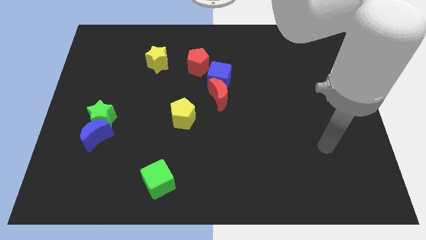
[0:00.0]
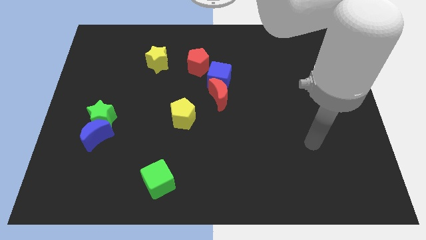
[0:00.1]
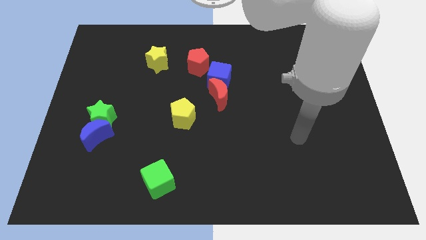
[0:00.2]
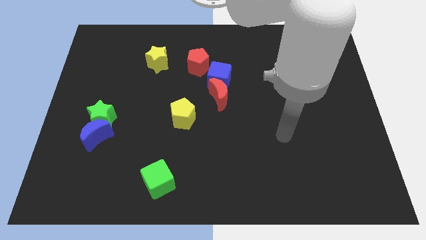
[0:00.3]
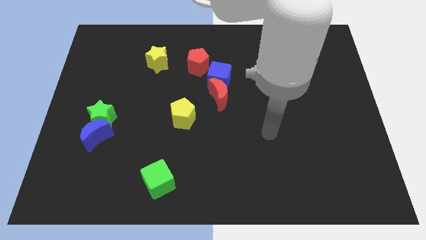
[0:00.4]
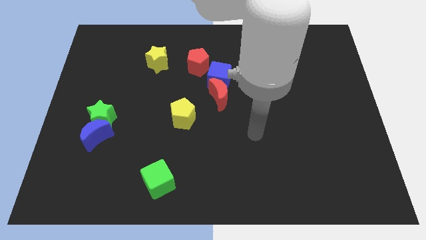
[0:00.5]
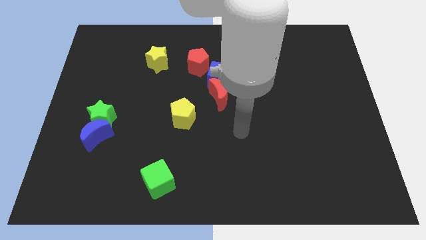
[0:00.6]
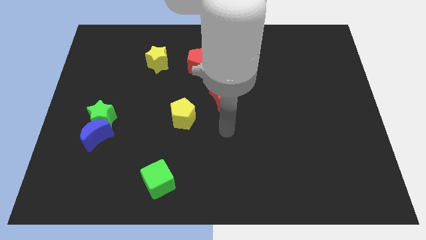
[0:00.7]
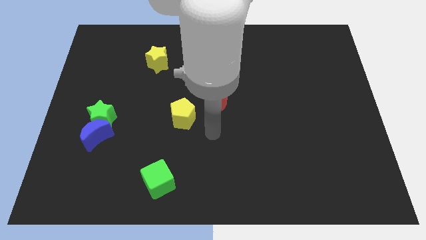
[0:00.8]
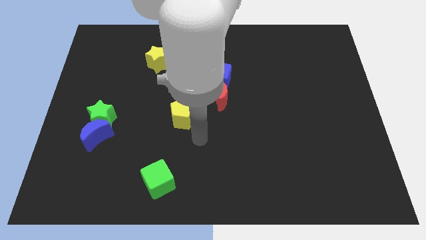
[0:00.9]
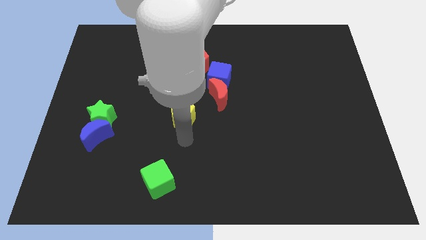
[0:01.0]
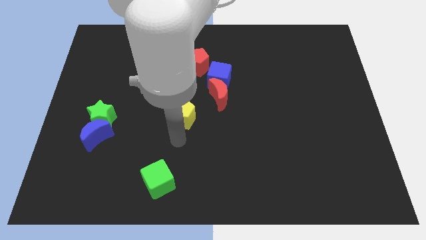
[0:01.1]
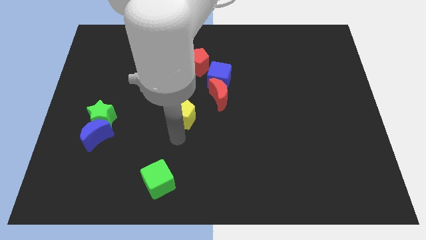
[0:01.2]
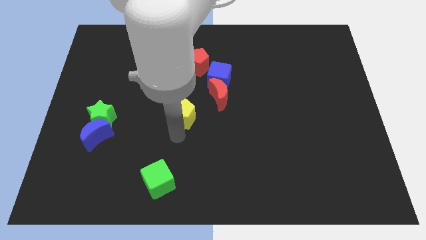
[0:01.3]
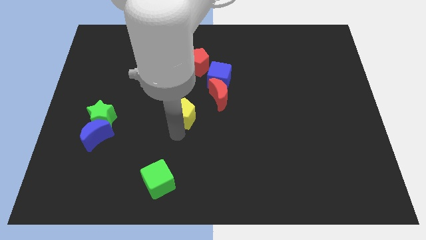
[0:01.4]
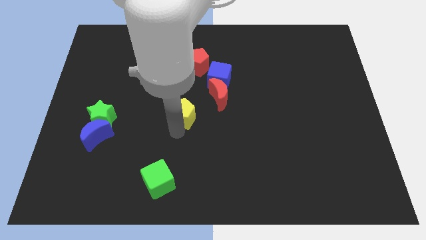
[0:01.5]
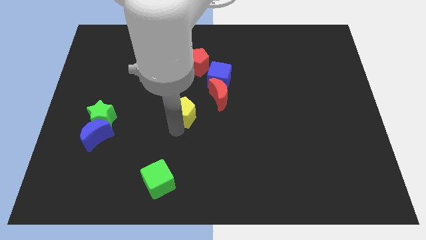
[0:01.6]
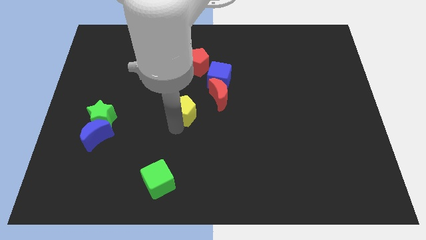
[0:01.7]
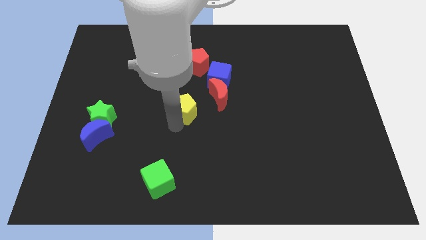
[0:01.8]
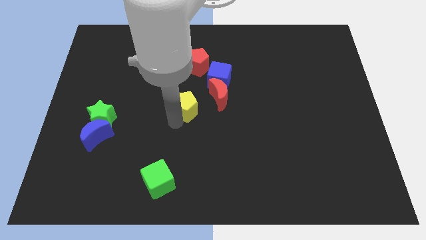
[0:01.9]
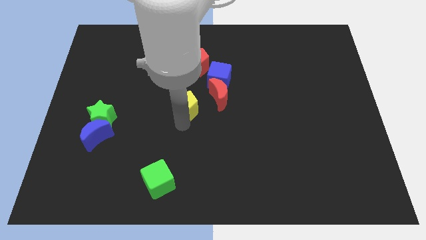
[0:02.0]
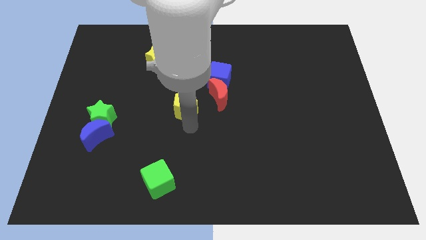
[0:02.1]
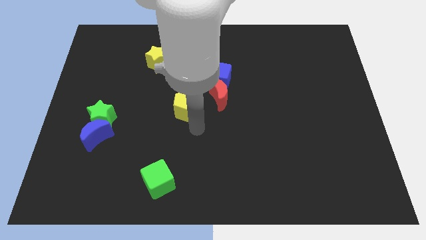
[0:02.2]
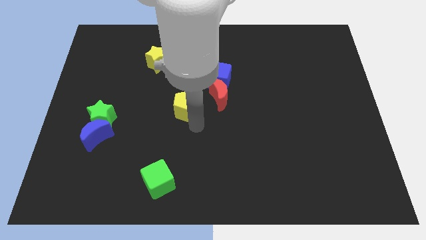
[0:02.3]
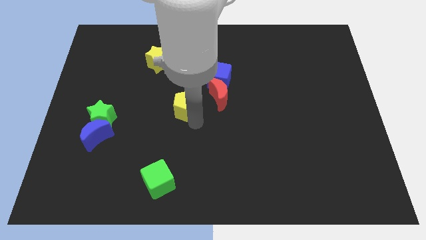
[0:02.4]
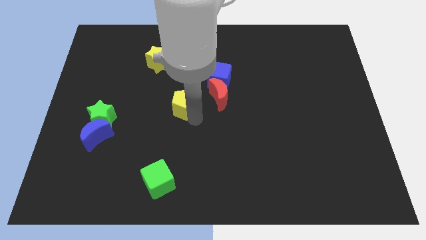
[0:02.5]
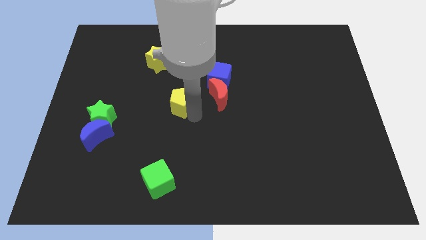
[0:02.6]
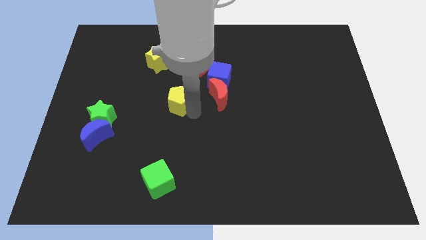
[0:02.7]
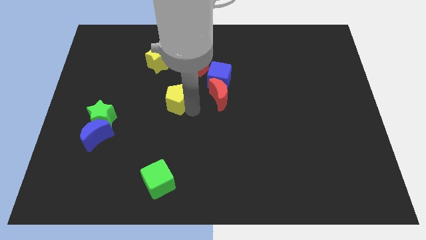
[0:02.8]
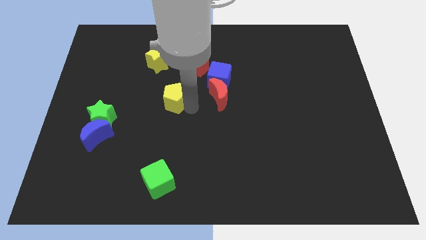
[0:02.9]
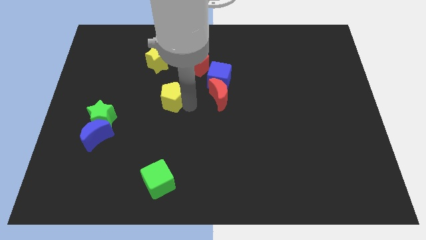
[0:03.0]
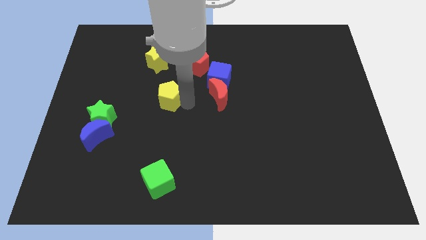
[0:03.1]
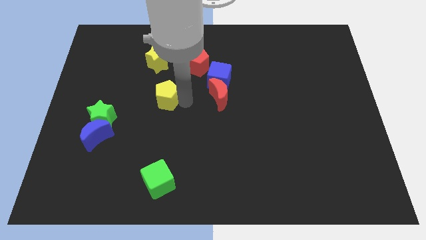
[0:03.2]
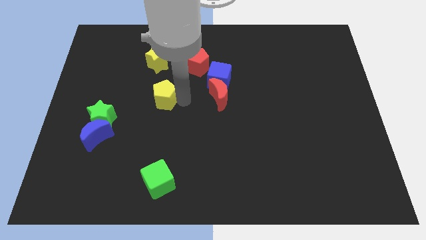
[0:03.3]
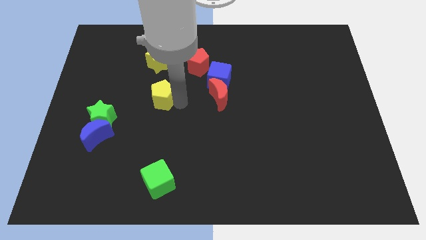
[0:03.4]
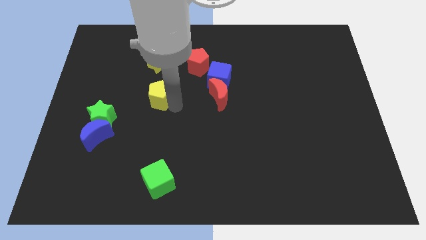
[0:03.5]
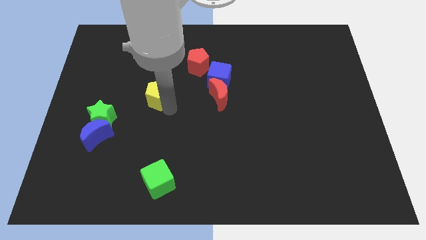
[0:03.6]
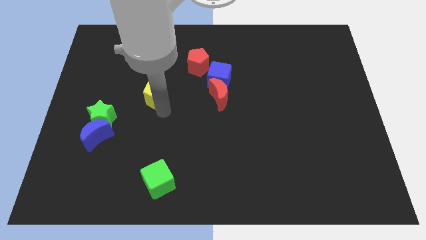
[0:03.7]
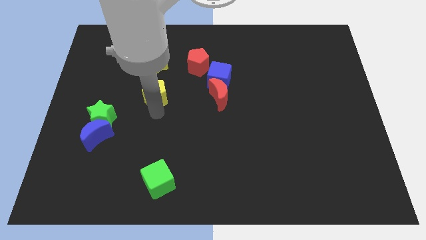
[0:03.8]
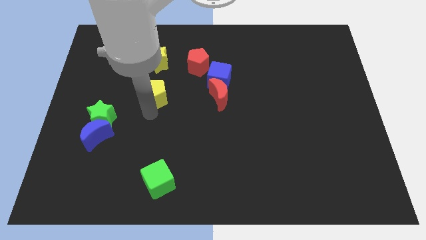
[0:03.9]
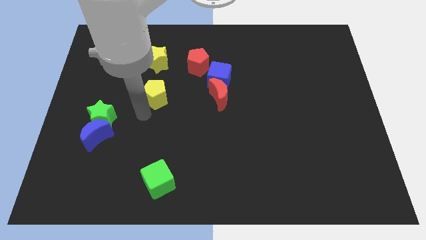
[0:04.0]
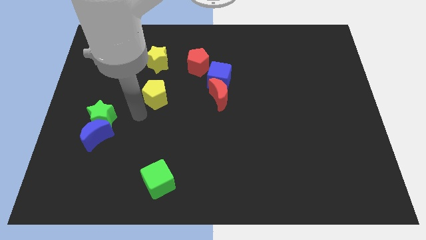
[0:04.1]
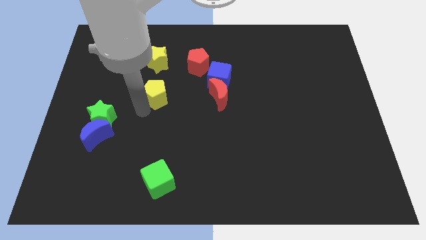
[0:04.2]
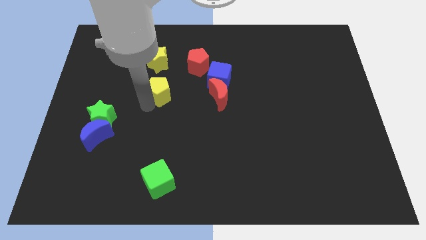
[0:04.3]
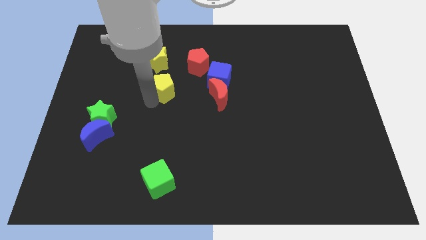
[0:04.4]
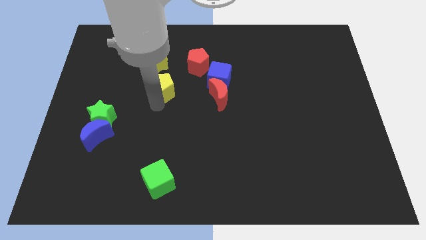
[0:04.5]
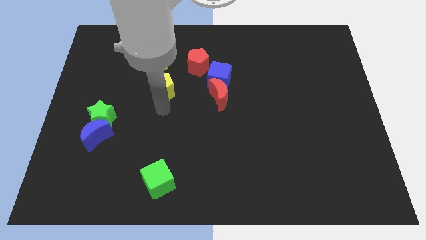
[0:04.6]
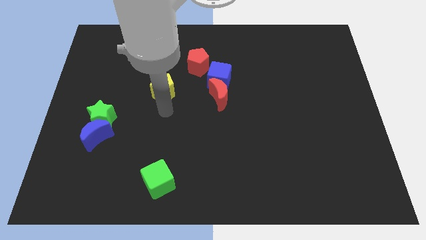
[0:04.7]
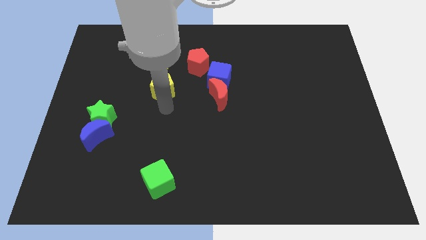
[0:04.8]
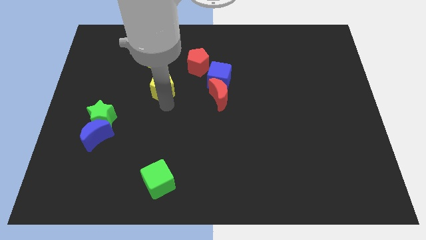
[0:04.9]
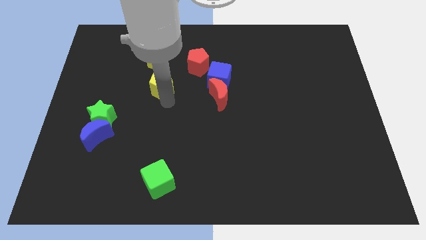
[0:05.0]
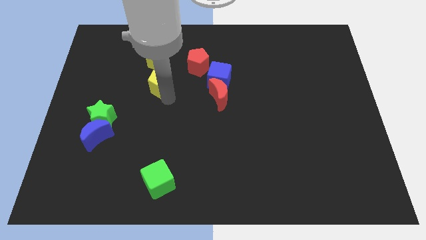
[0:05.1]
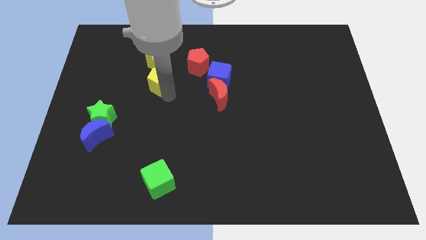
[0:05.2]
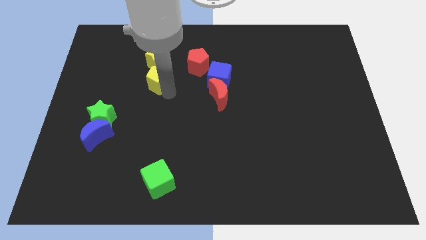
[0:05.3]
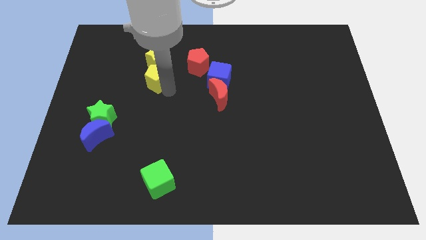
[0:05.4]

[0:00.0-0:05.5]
move the yellow pentagon next to the yellow star

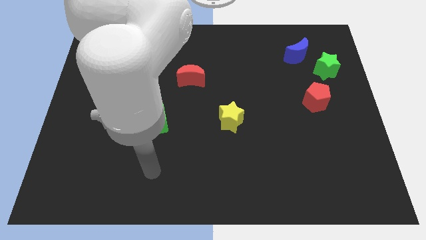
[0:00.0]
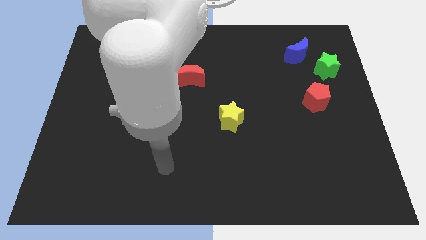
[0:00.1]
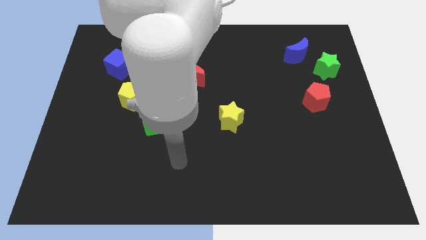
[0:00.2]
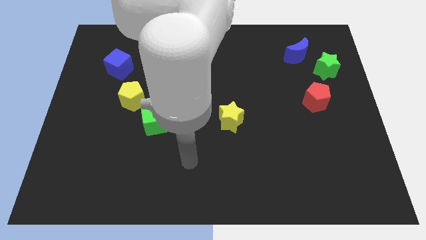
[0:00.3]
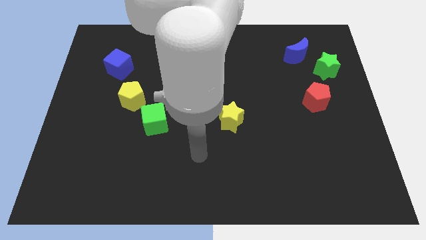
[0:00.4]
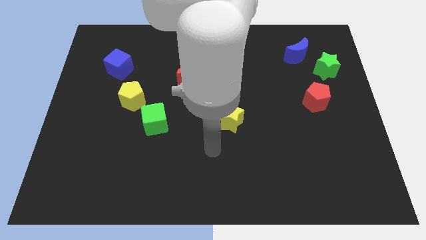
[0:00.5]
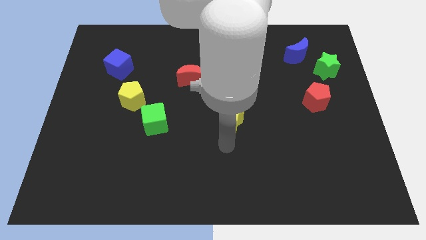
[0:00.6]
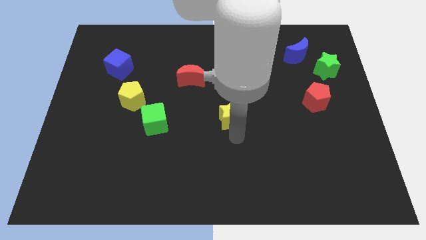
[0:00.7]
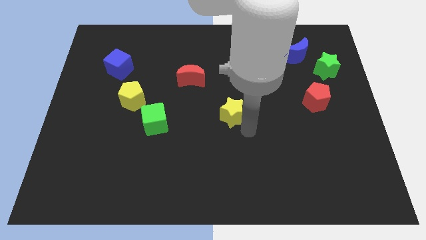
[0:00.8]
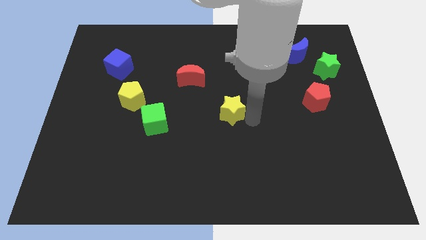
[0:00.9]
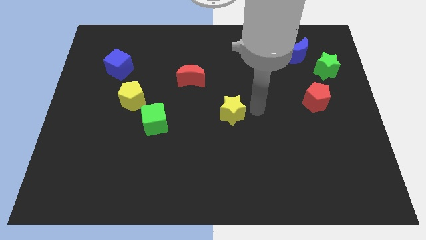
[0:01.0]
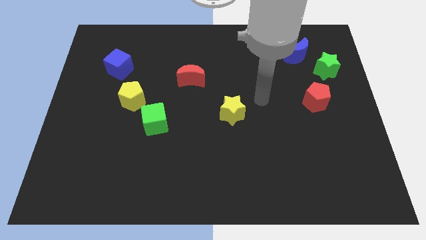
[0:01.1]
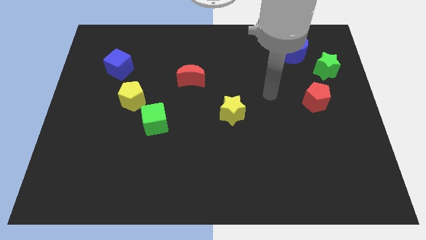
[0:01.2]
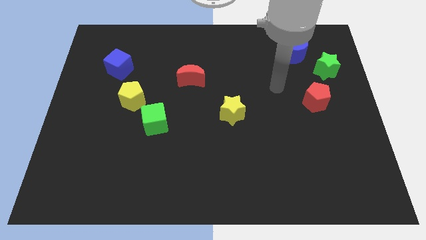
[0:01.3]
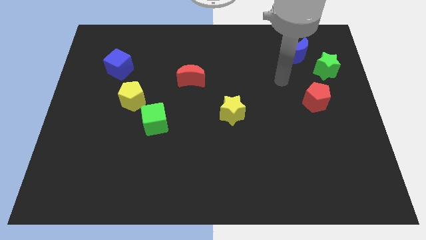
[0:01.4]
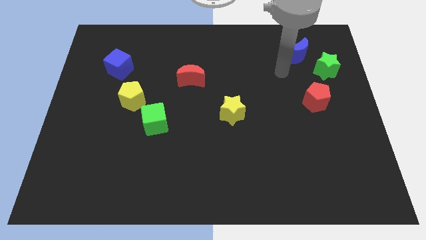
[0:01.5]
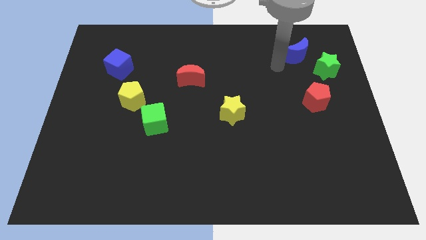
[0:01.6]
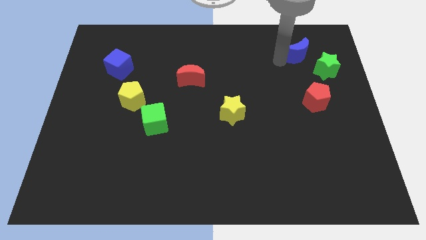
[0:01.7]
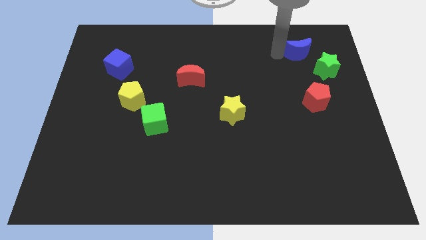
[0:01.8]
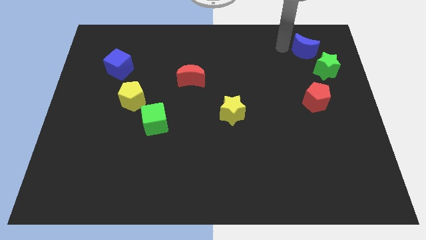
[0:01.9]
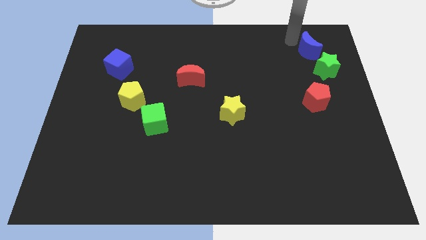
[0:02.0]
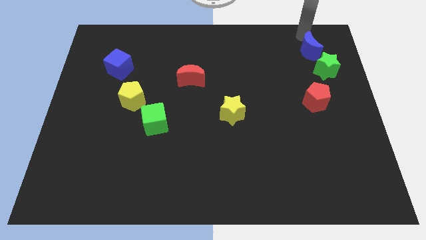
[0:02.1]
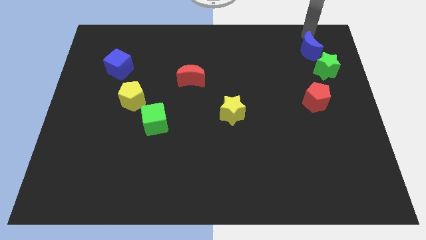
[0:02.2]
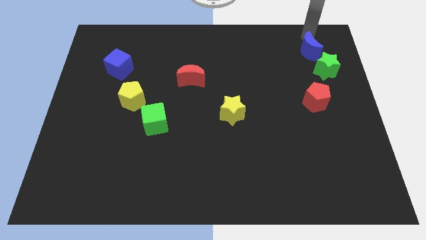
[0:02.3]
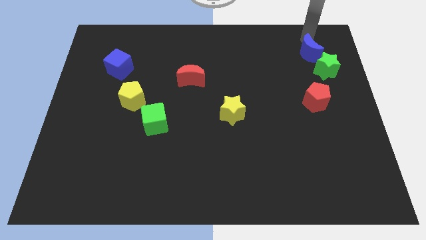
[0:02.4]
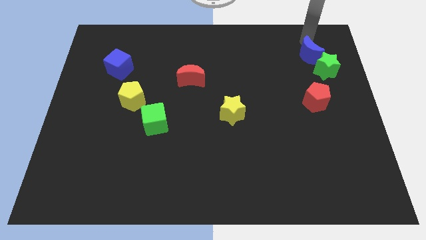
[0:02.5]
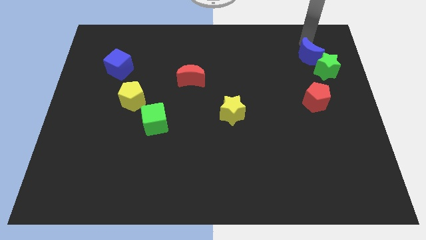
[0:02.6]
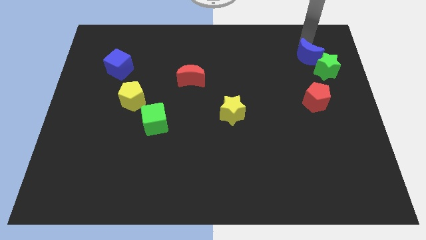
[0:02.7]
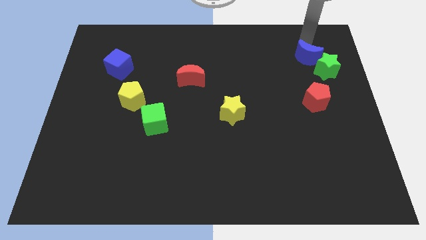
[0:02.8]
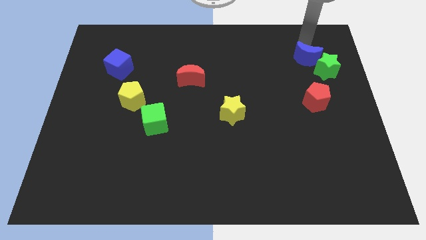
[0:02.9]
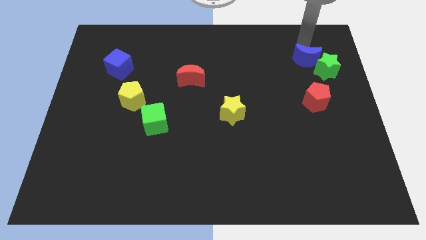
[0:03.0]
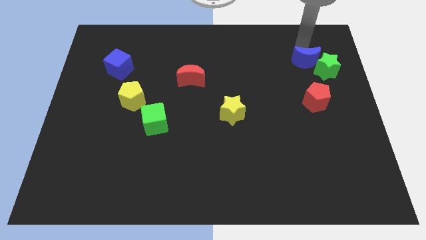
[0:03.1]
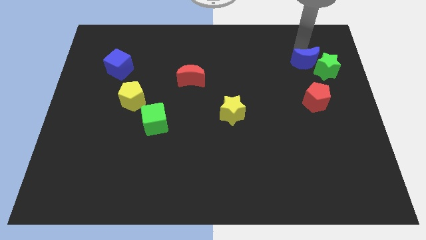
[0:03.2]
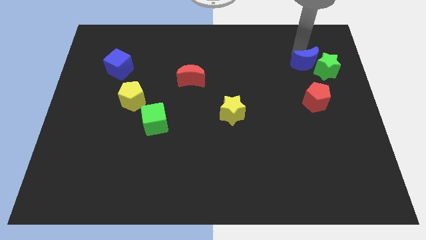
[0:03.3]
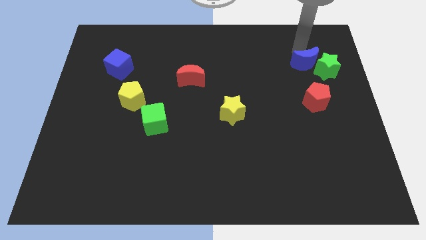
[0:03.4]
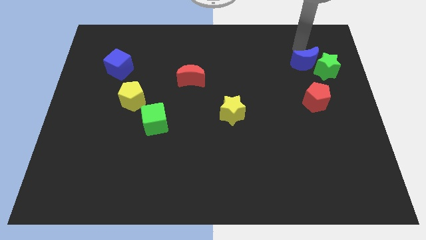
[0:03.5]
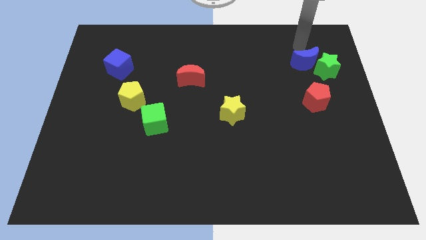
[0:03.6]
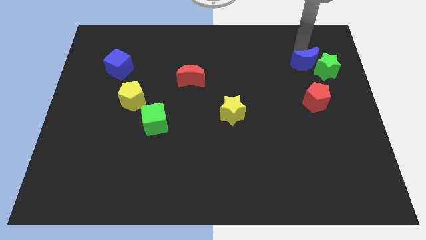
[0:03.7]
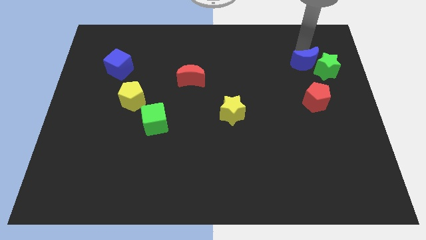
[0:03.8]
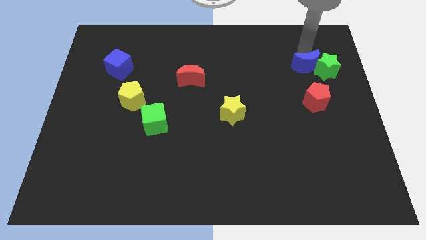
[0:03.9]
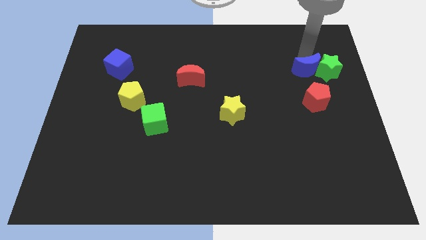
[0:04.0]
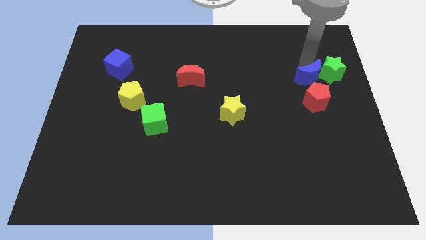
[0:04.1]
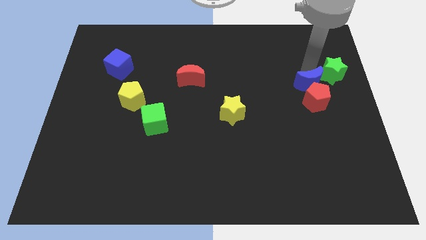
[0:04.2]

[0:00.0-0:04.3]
move the blue moon next to the red pentagon
